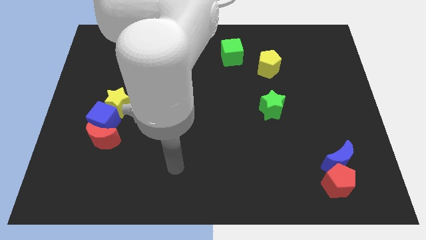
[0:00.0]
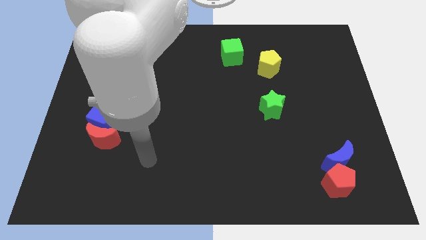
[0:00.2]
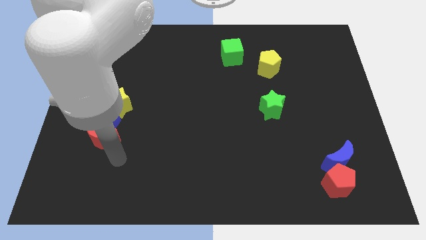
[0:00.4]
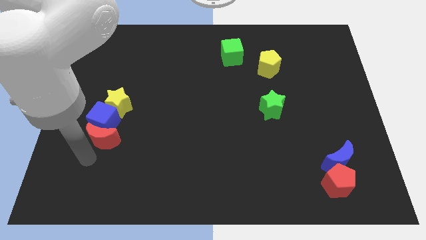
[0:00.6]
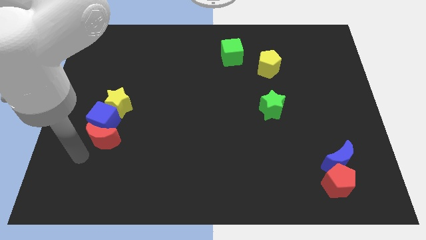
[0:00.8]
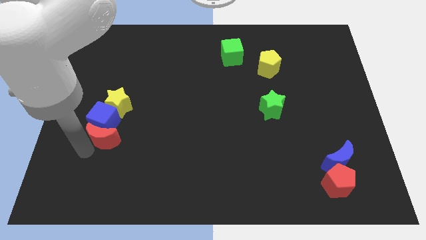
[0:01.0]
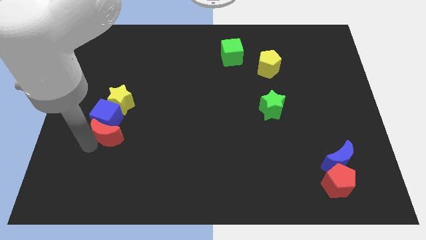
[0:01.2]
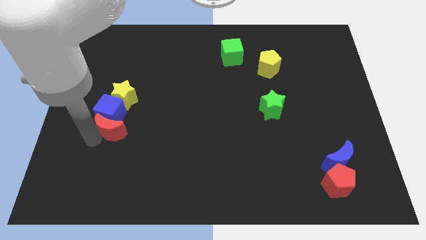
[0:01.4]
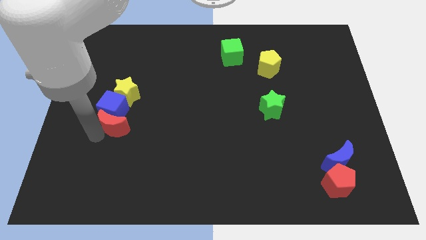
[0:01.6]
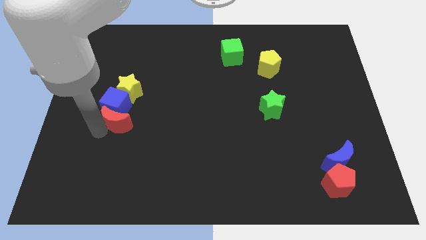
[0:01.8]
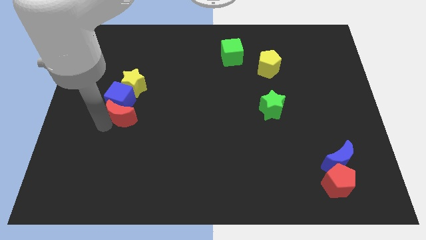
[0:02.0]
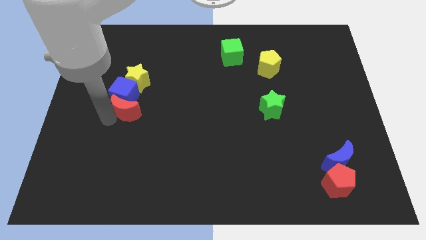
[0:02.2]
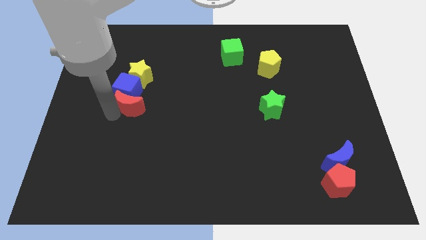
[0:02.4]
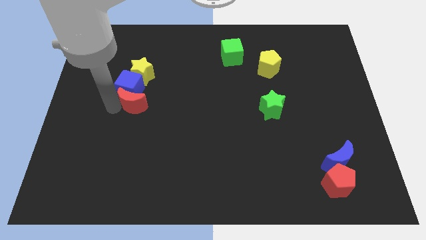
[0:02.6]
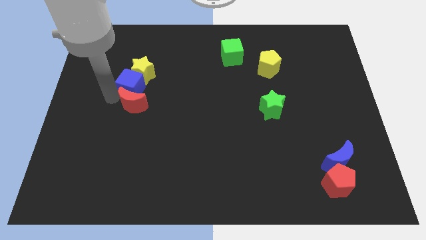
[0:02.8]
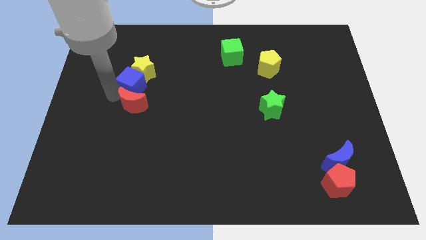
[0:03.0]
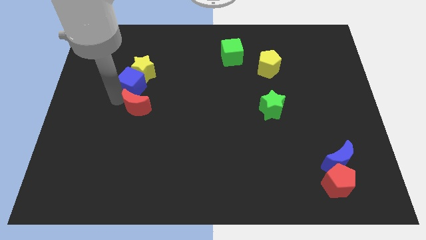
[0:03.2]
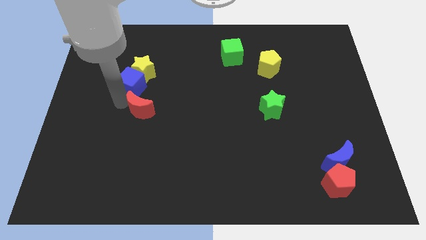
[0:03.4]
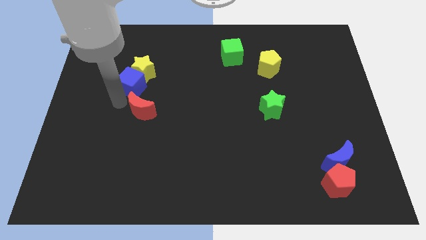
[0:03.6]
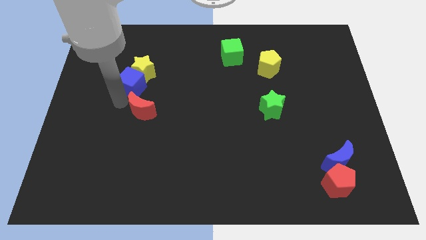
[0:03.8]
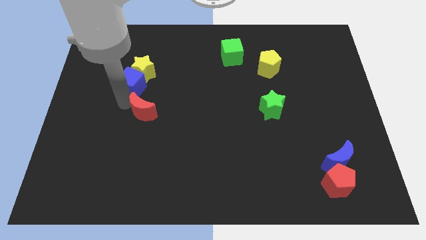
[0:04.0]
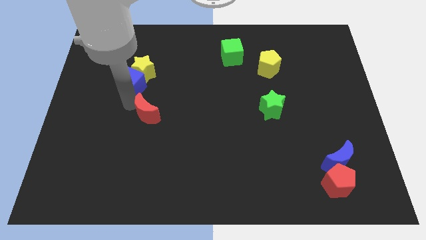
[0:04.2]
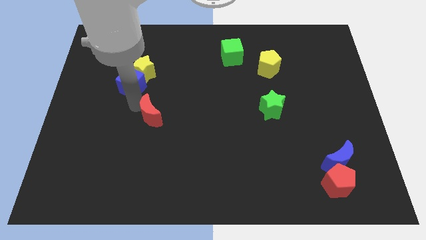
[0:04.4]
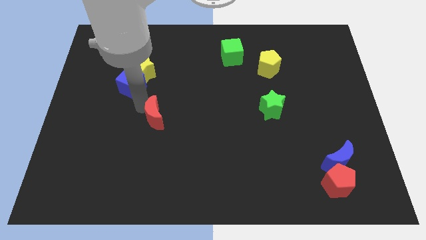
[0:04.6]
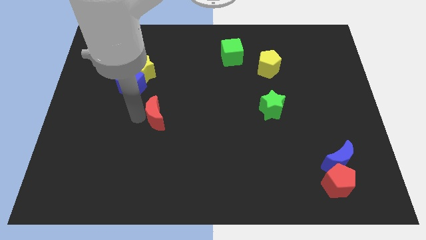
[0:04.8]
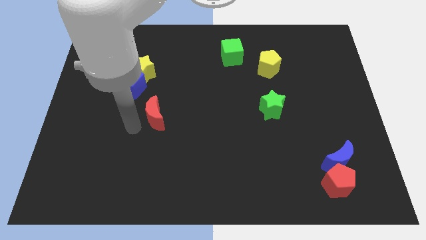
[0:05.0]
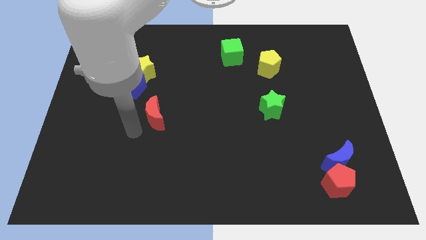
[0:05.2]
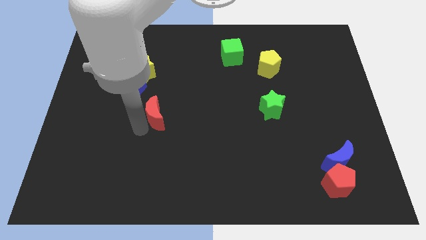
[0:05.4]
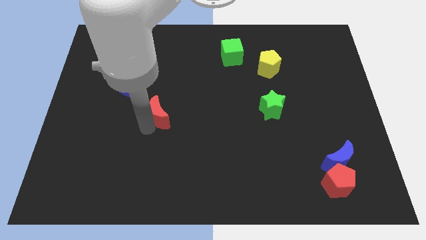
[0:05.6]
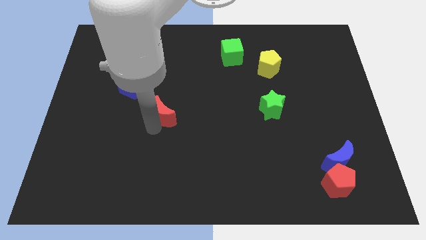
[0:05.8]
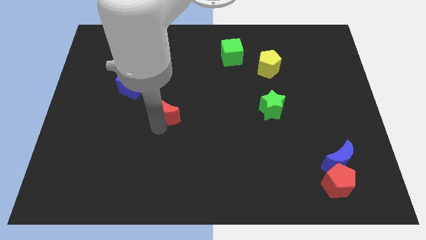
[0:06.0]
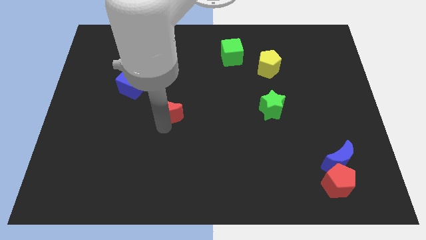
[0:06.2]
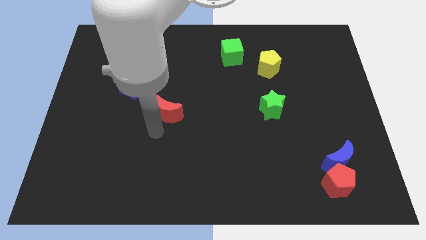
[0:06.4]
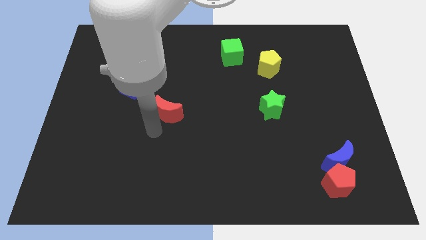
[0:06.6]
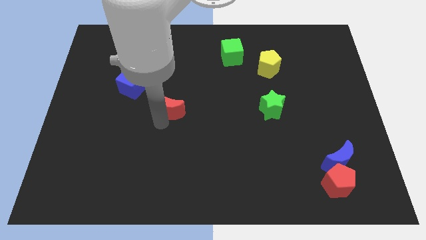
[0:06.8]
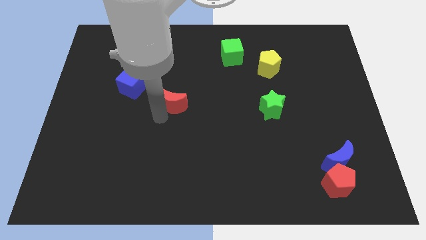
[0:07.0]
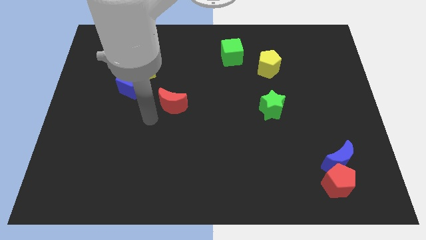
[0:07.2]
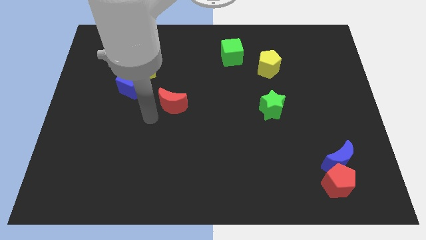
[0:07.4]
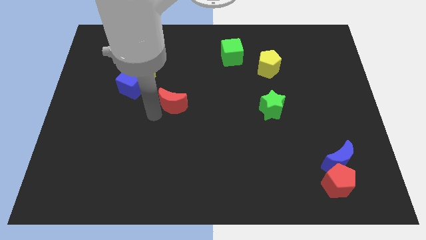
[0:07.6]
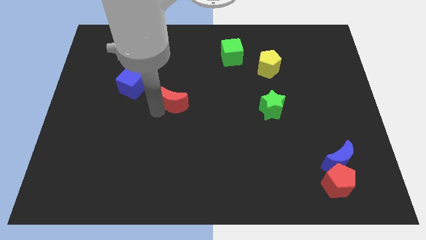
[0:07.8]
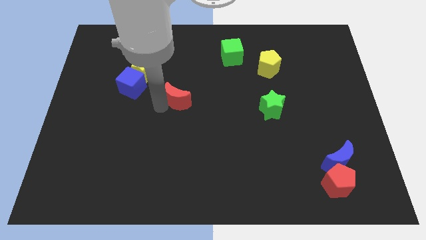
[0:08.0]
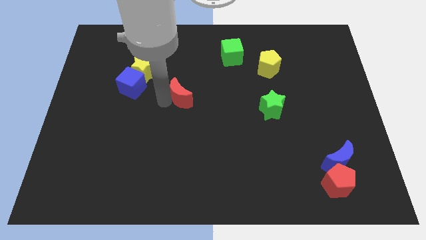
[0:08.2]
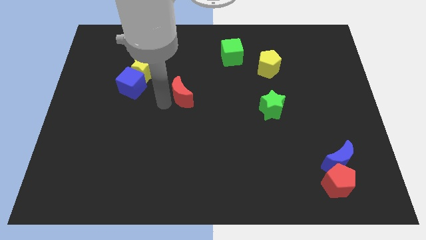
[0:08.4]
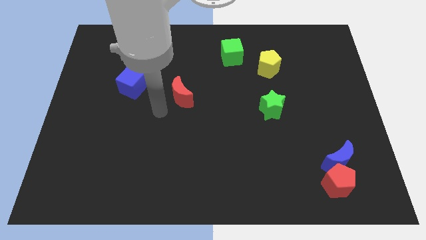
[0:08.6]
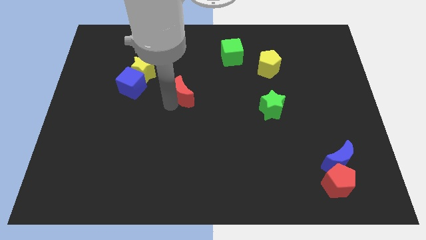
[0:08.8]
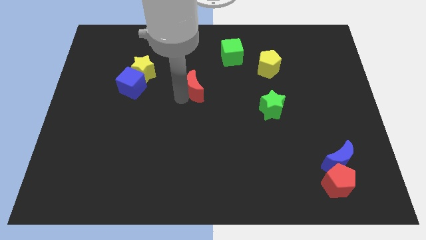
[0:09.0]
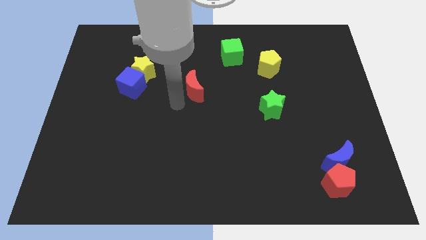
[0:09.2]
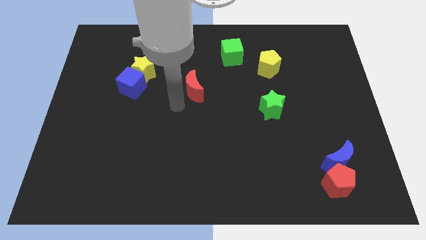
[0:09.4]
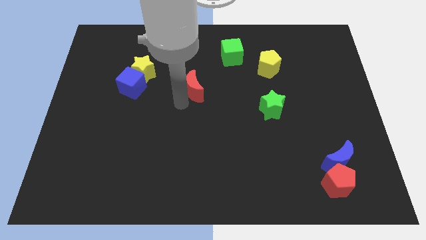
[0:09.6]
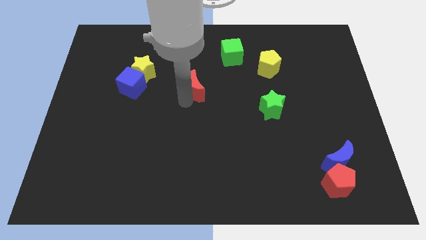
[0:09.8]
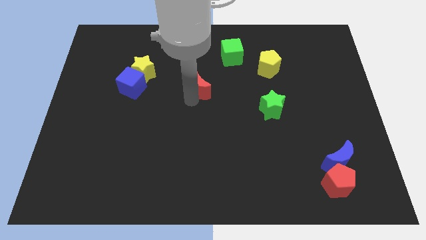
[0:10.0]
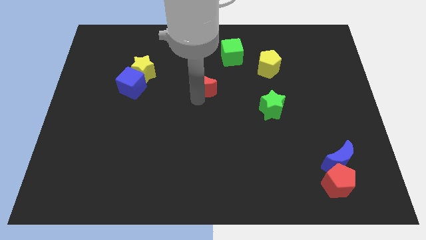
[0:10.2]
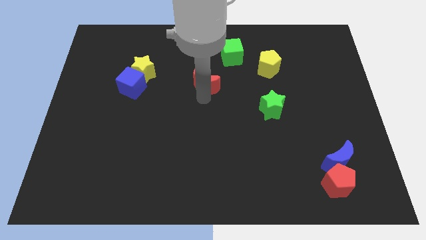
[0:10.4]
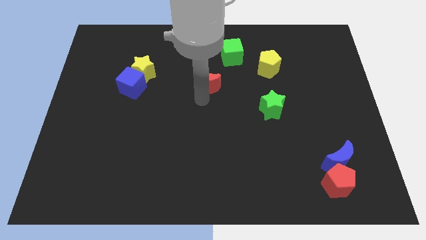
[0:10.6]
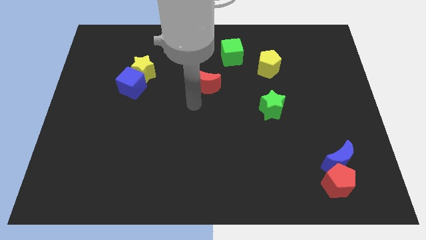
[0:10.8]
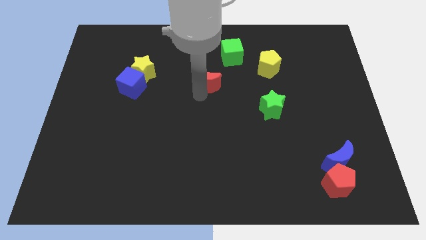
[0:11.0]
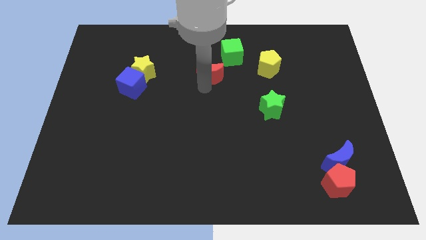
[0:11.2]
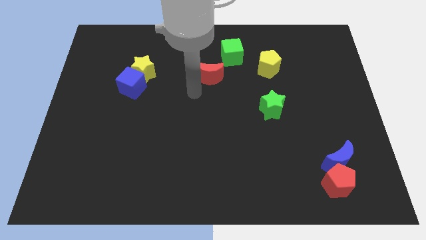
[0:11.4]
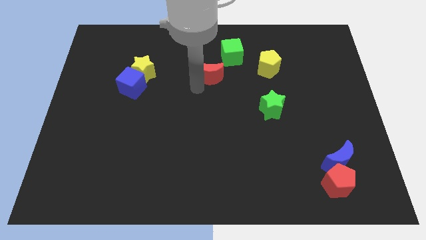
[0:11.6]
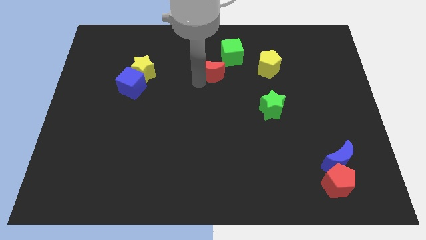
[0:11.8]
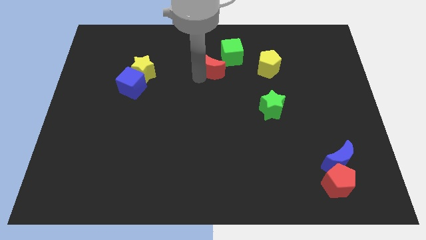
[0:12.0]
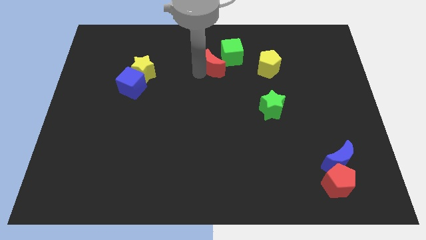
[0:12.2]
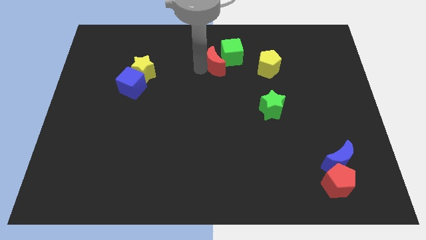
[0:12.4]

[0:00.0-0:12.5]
push the red moon next to the green cube
